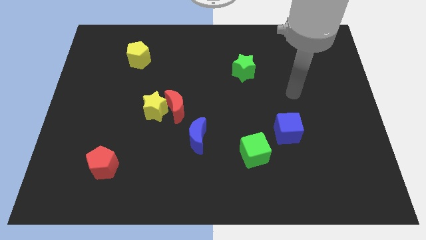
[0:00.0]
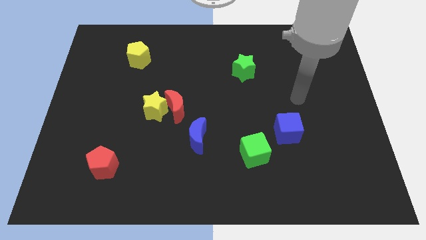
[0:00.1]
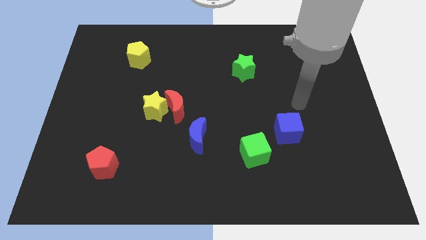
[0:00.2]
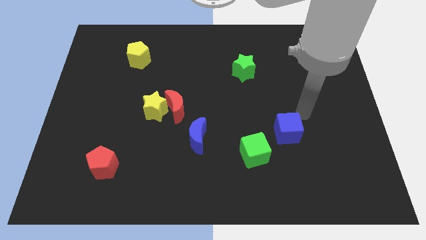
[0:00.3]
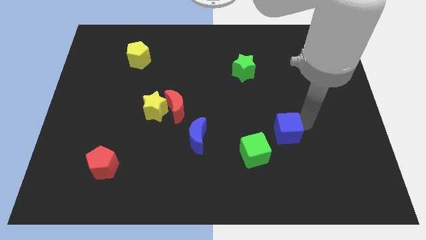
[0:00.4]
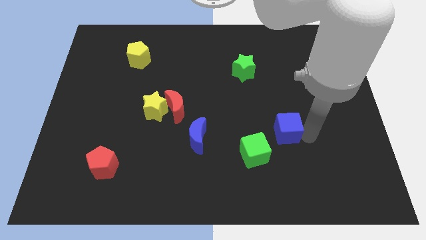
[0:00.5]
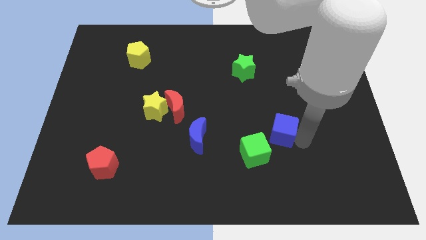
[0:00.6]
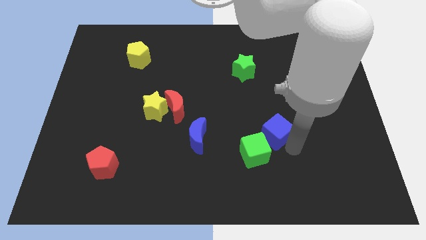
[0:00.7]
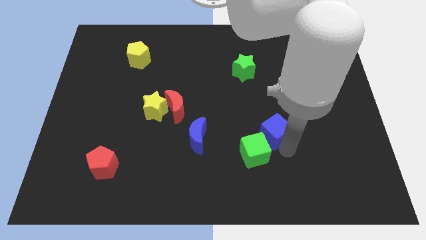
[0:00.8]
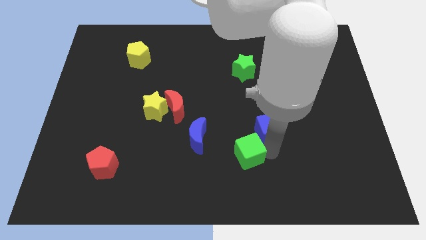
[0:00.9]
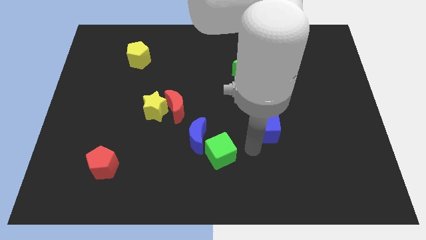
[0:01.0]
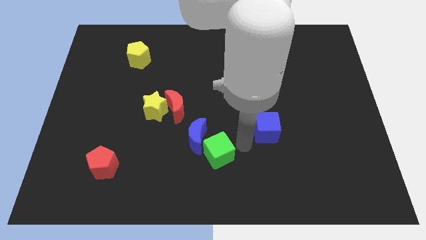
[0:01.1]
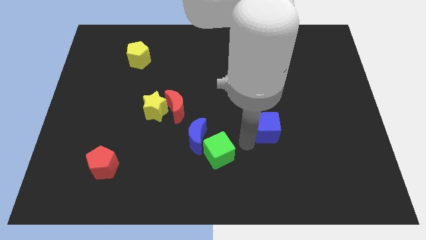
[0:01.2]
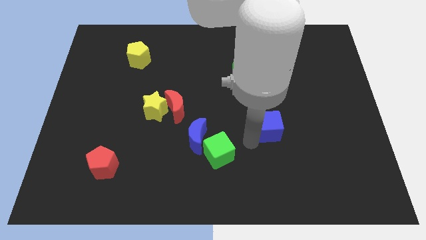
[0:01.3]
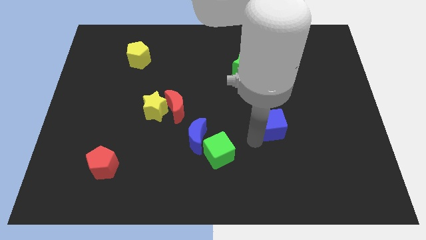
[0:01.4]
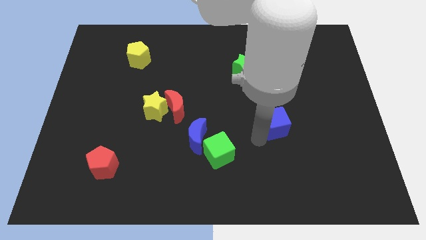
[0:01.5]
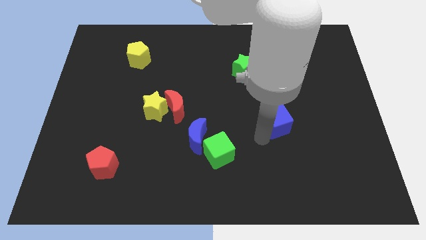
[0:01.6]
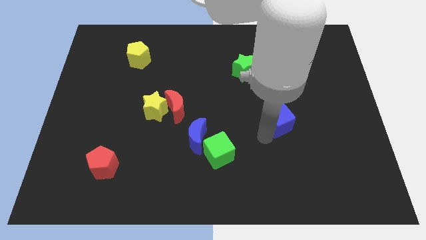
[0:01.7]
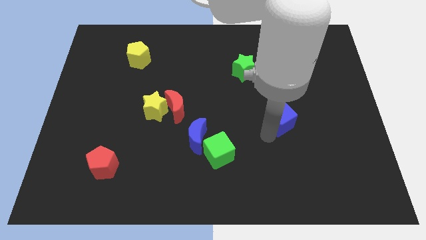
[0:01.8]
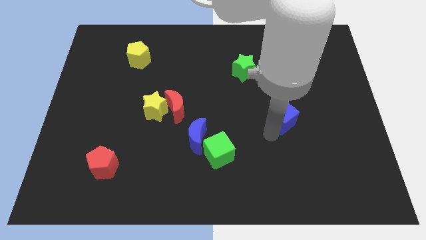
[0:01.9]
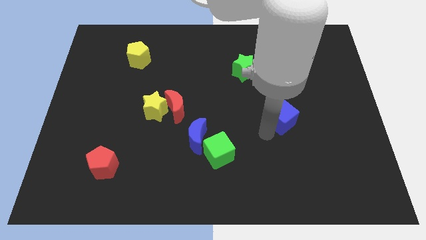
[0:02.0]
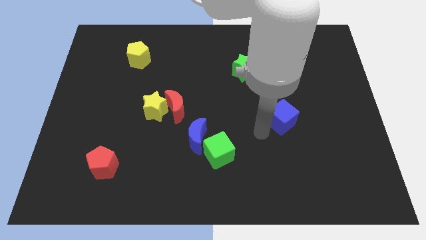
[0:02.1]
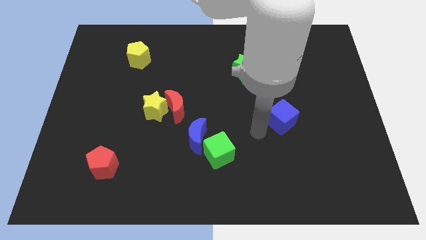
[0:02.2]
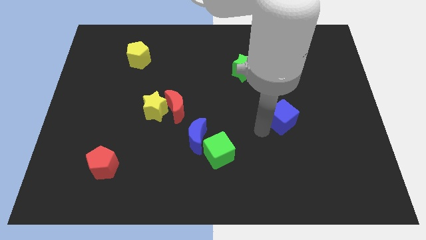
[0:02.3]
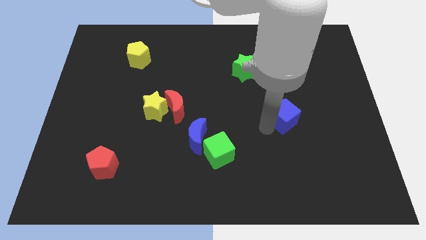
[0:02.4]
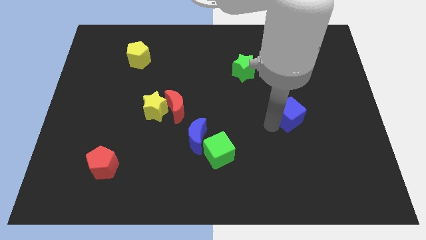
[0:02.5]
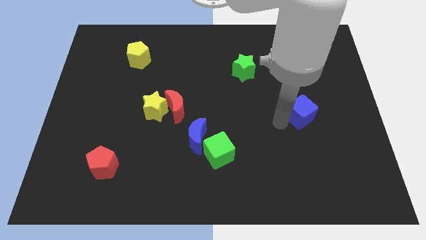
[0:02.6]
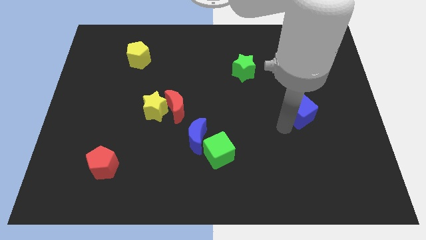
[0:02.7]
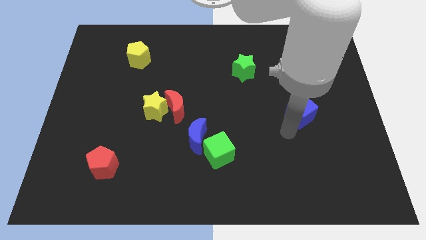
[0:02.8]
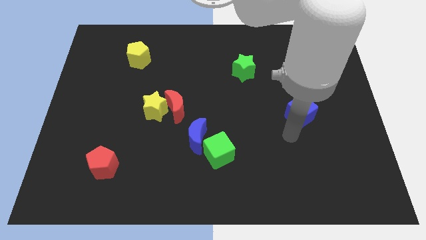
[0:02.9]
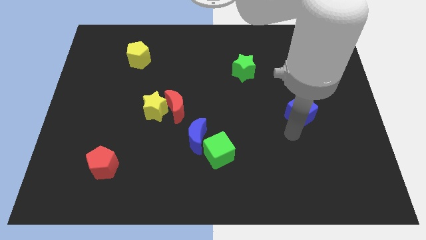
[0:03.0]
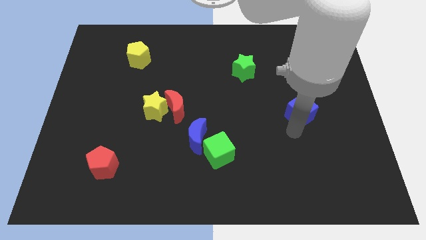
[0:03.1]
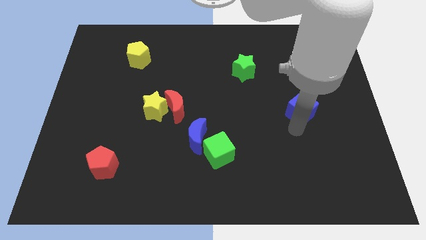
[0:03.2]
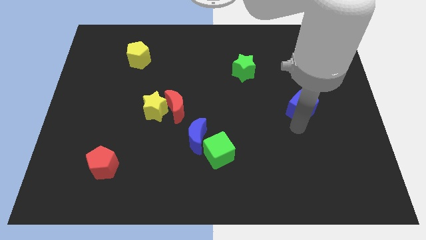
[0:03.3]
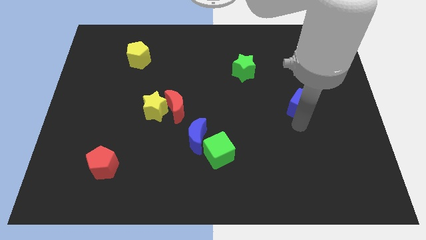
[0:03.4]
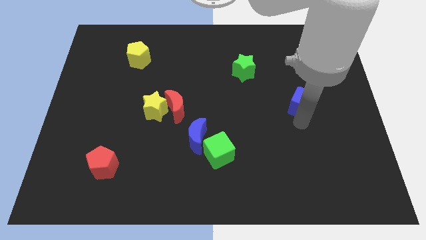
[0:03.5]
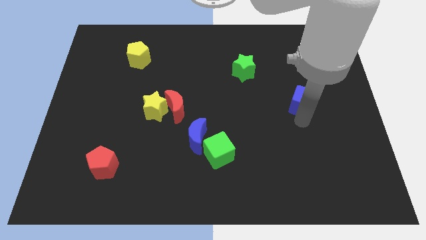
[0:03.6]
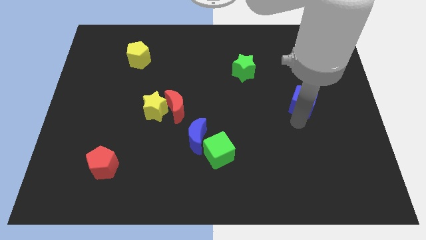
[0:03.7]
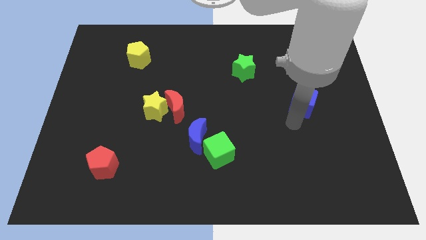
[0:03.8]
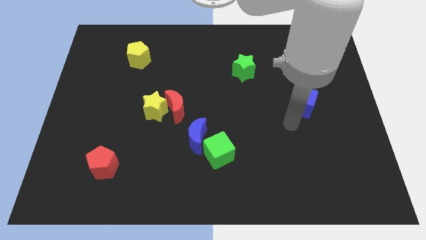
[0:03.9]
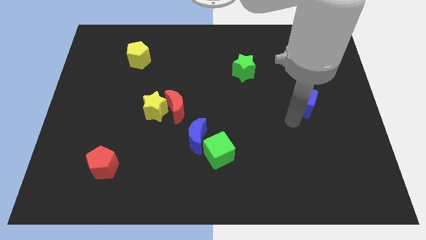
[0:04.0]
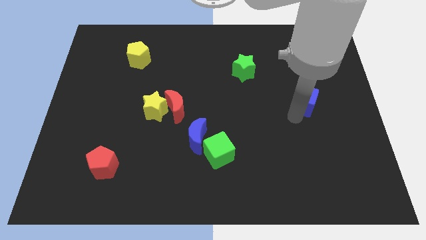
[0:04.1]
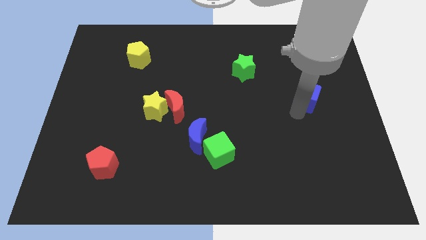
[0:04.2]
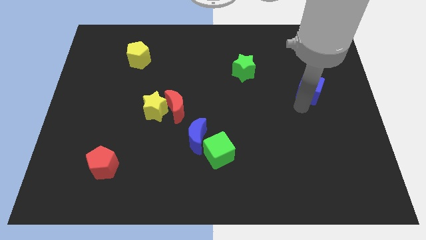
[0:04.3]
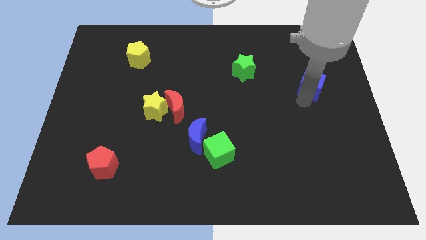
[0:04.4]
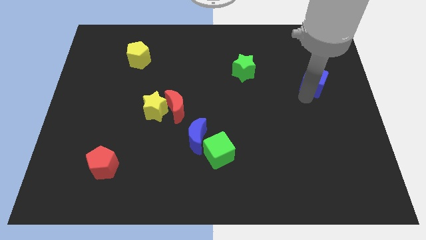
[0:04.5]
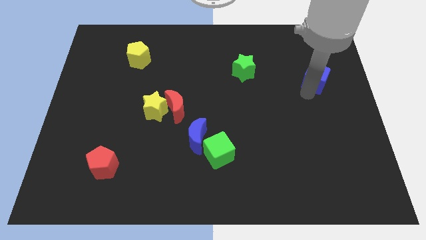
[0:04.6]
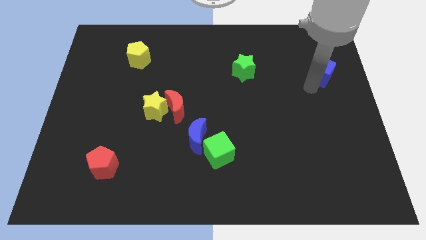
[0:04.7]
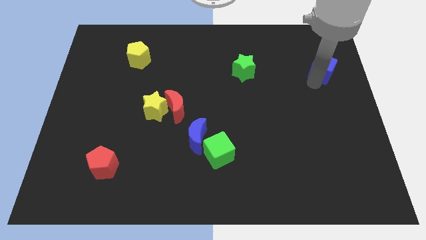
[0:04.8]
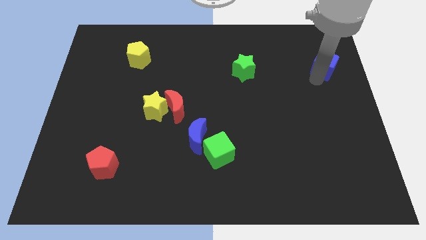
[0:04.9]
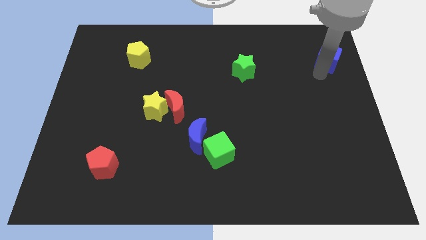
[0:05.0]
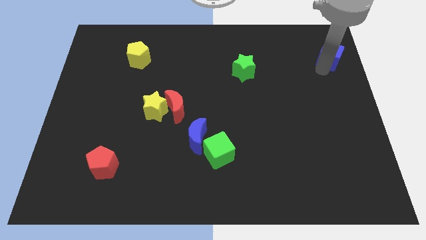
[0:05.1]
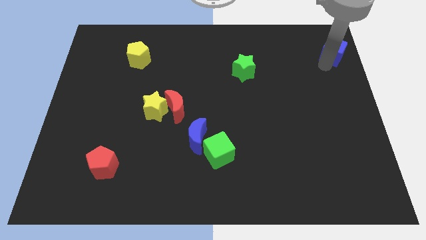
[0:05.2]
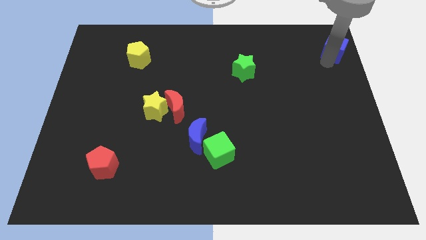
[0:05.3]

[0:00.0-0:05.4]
slide the blue cube to the top right of the board
